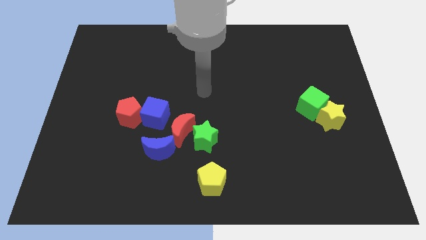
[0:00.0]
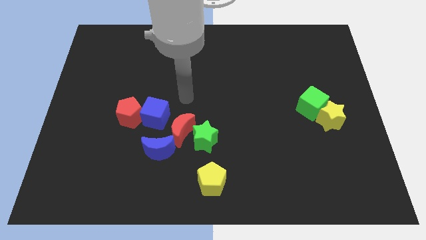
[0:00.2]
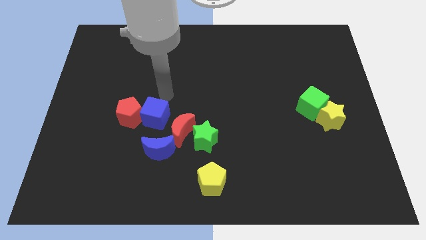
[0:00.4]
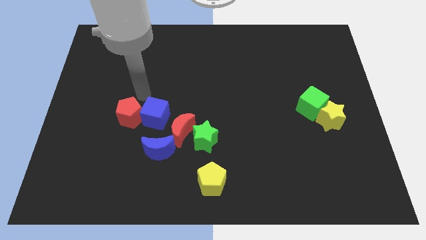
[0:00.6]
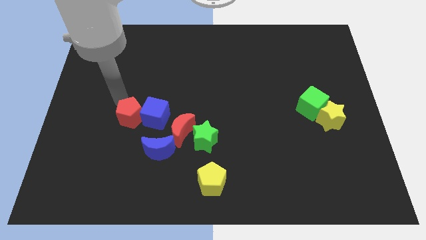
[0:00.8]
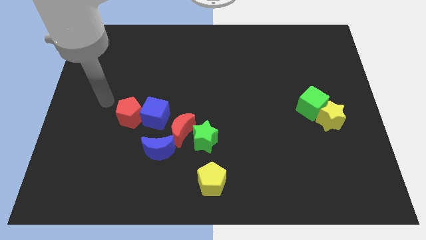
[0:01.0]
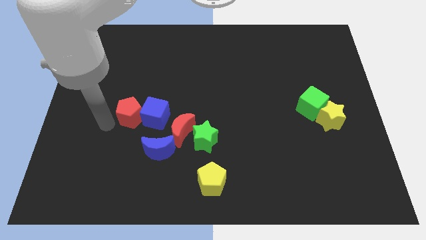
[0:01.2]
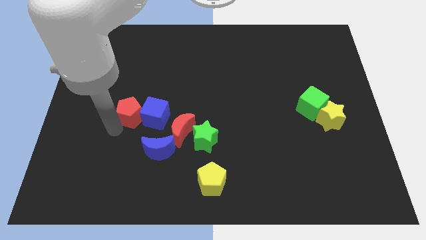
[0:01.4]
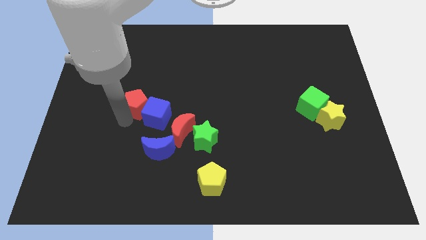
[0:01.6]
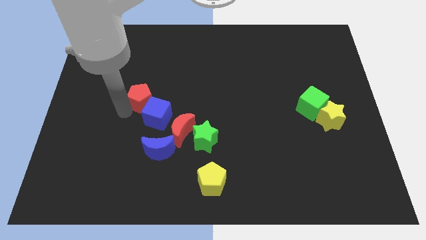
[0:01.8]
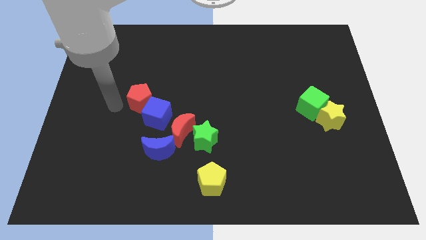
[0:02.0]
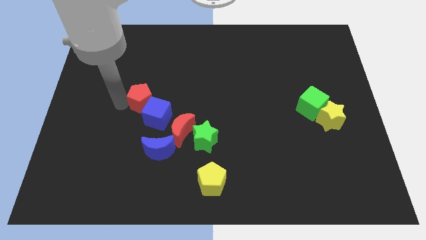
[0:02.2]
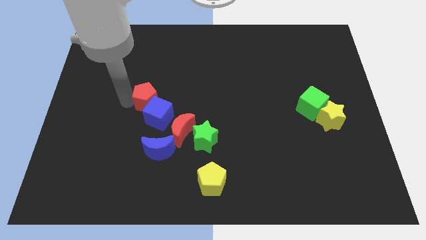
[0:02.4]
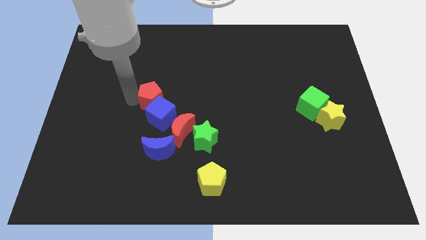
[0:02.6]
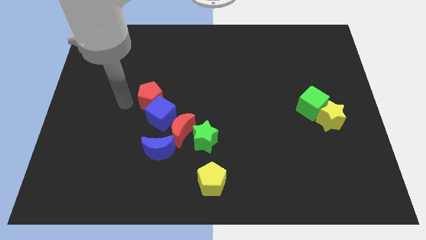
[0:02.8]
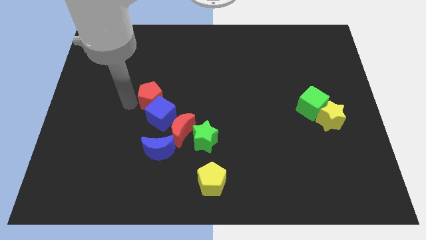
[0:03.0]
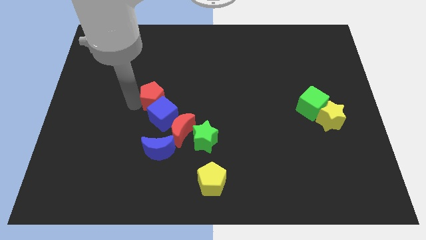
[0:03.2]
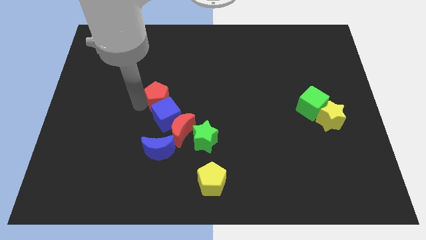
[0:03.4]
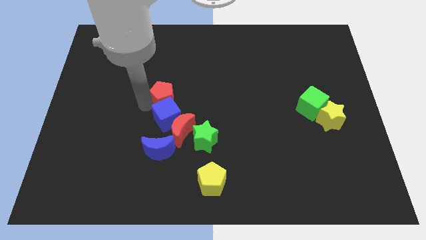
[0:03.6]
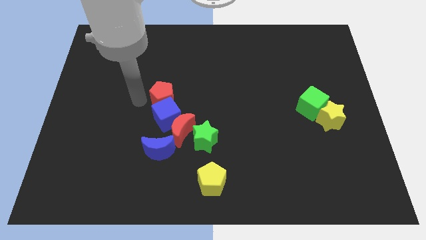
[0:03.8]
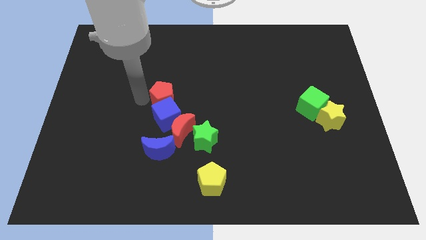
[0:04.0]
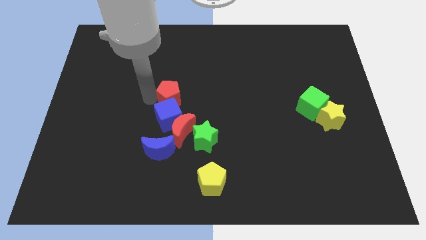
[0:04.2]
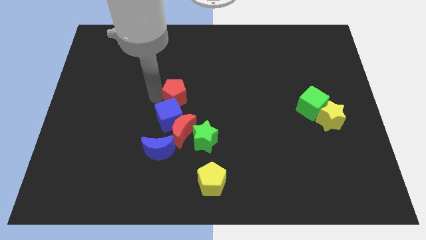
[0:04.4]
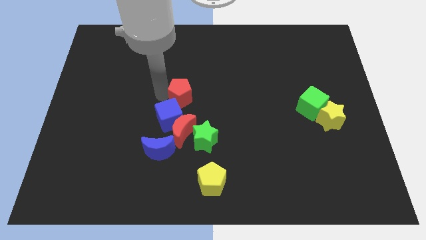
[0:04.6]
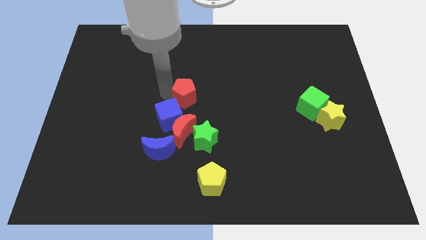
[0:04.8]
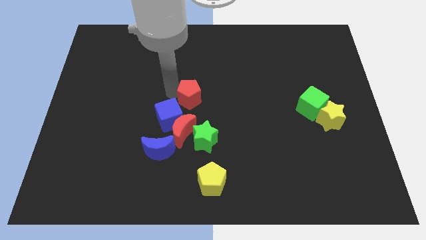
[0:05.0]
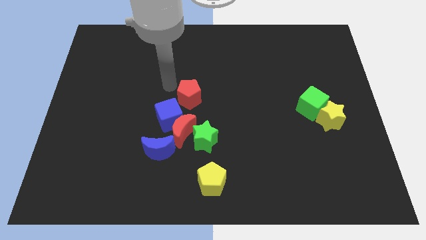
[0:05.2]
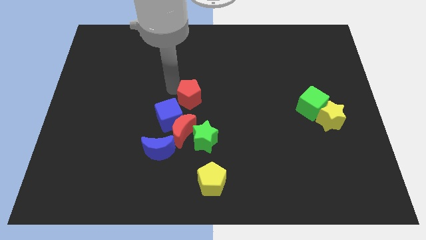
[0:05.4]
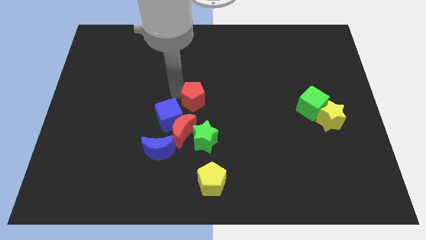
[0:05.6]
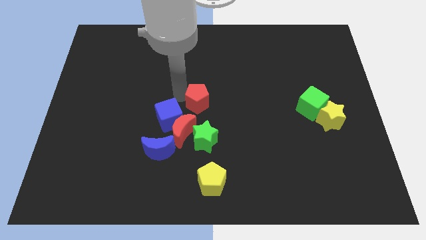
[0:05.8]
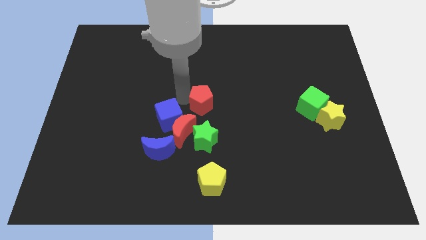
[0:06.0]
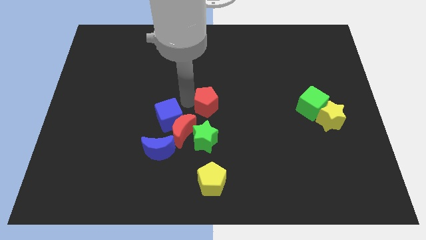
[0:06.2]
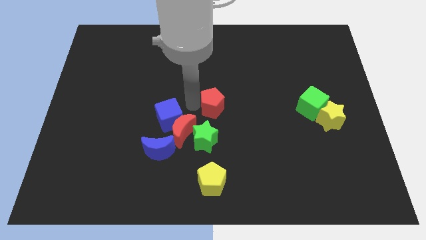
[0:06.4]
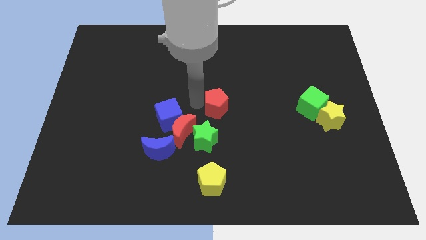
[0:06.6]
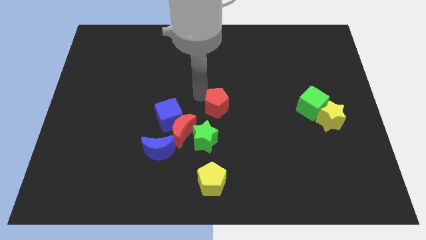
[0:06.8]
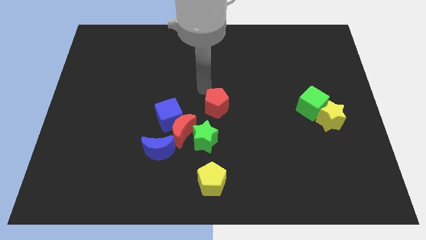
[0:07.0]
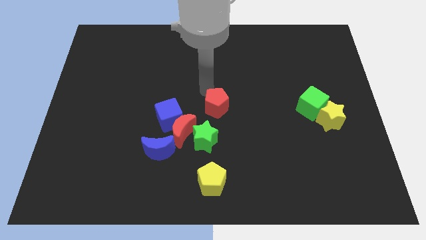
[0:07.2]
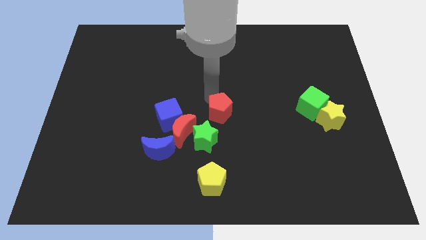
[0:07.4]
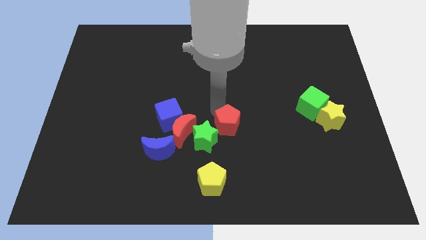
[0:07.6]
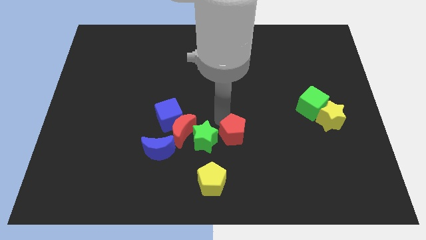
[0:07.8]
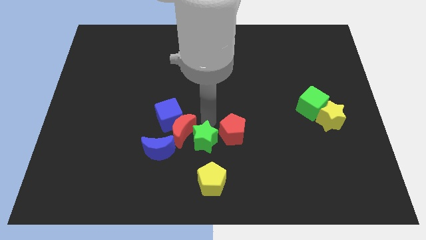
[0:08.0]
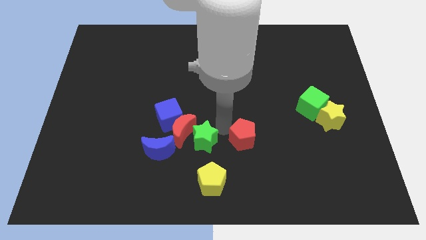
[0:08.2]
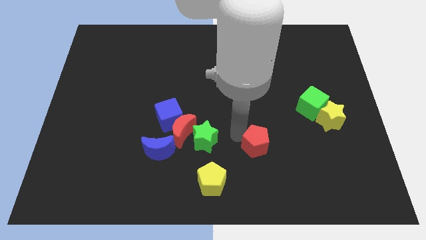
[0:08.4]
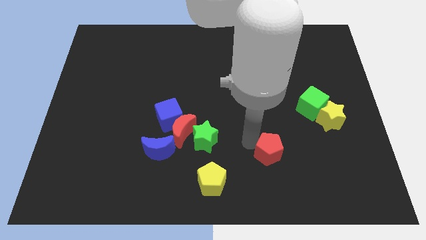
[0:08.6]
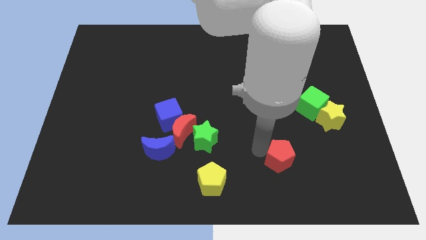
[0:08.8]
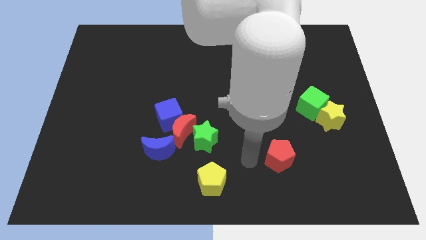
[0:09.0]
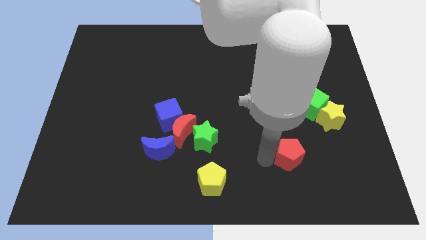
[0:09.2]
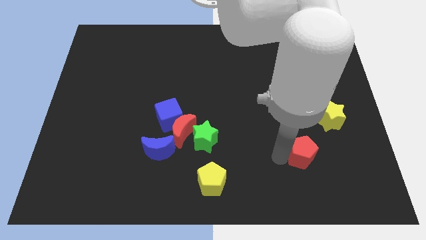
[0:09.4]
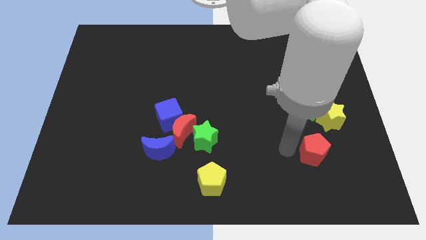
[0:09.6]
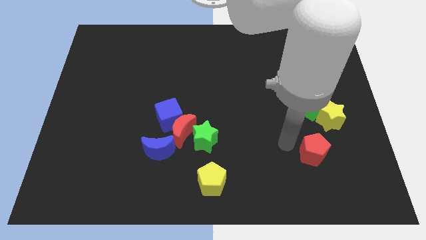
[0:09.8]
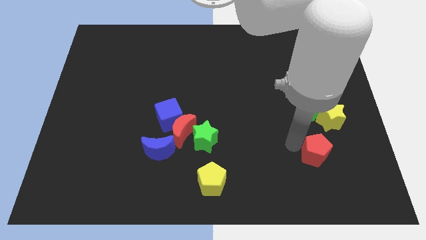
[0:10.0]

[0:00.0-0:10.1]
slide the red pentagon to the bottom side of the yellow star

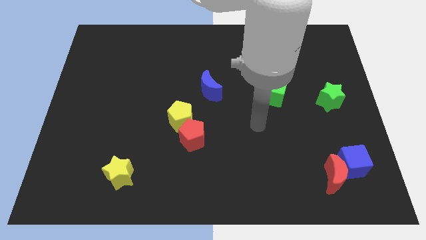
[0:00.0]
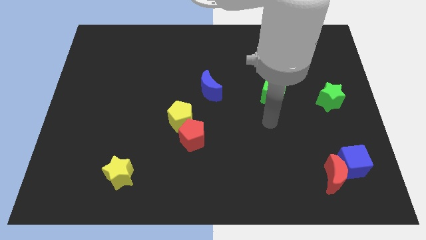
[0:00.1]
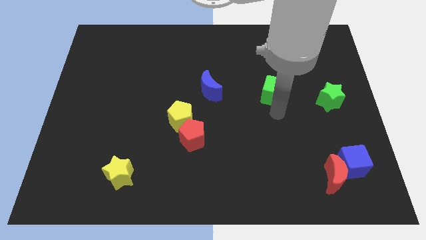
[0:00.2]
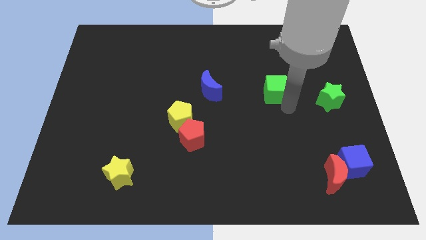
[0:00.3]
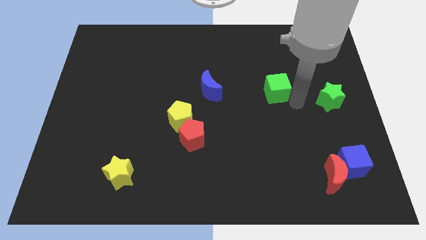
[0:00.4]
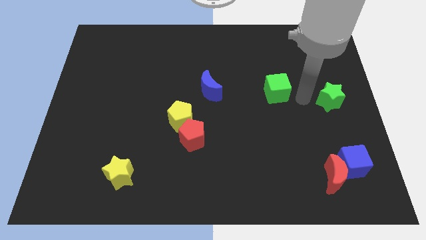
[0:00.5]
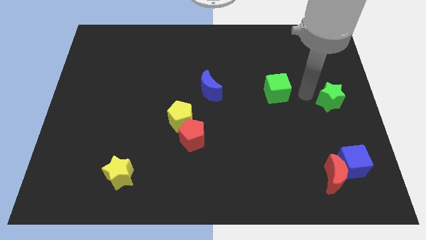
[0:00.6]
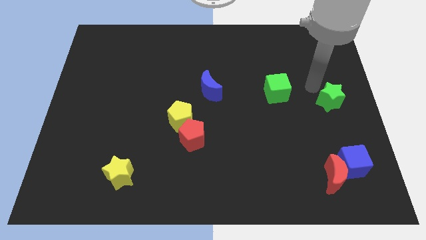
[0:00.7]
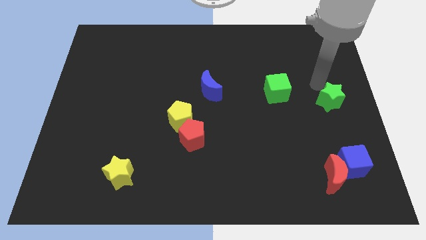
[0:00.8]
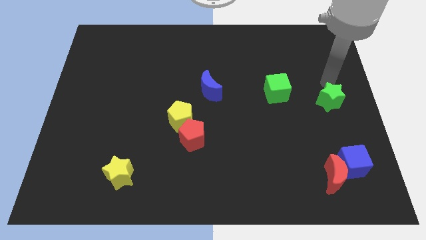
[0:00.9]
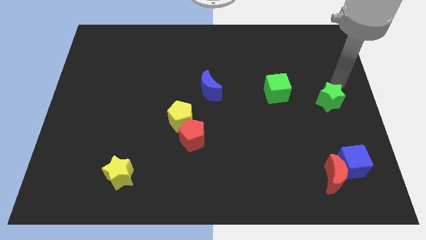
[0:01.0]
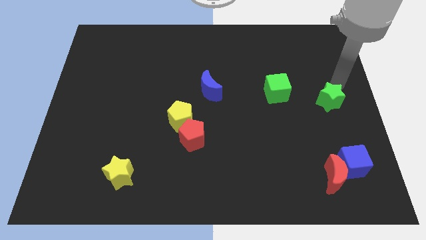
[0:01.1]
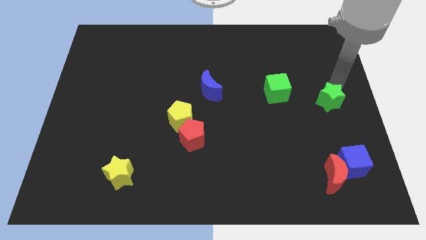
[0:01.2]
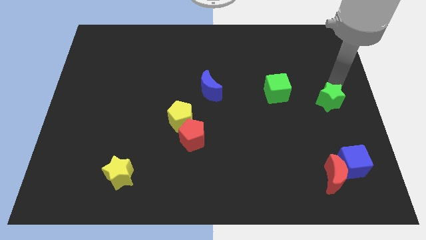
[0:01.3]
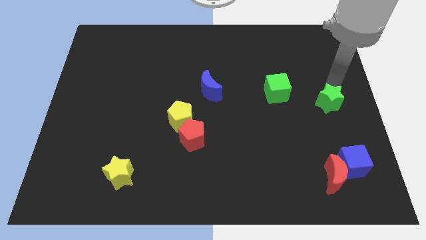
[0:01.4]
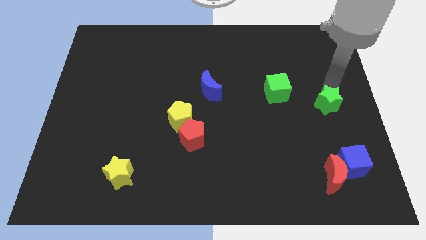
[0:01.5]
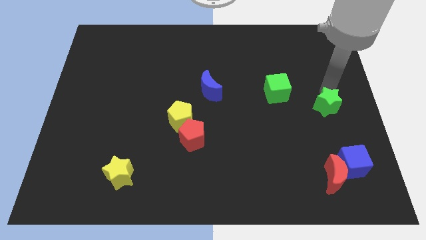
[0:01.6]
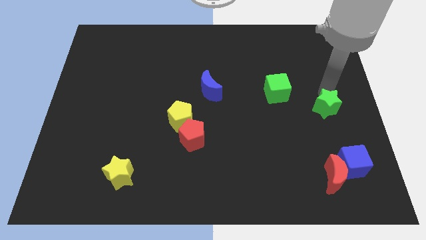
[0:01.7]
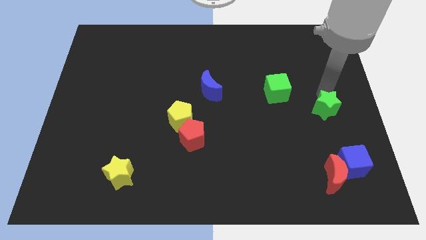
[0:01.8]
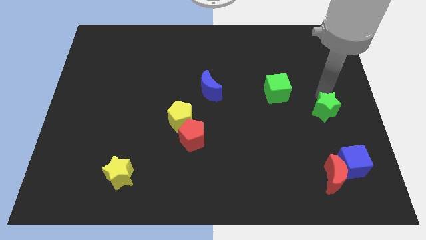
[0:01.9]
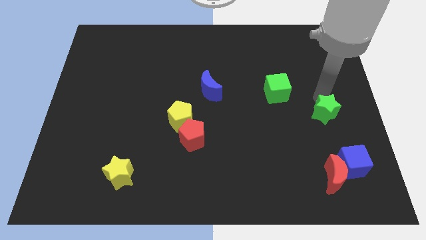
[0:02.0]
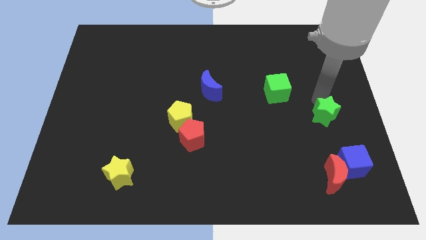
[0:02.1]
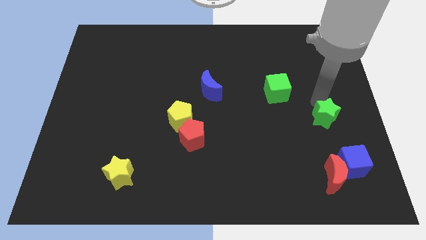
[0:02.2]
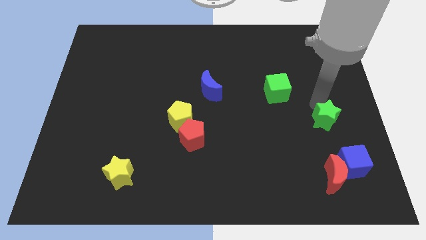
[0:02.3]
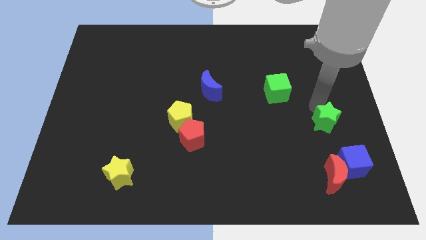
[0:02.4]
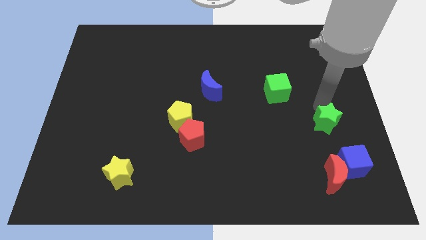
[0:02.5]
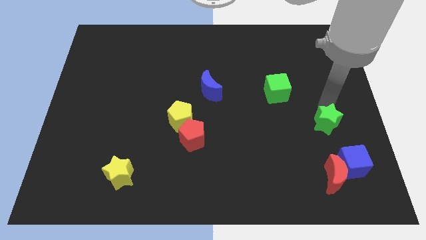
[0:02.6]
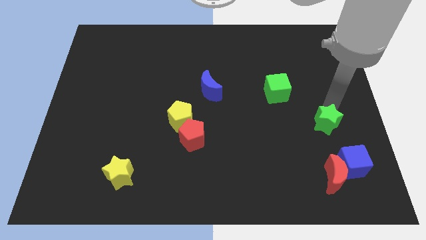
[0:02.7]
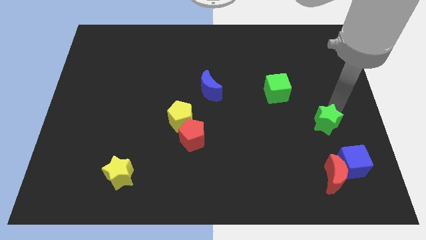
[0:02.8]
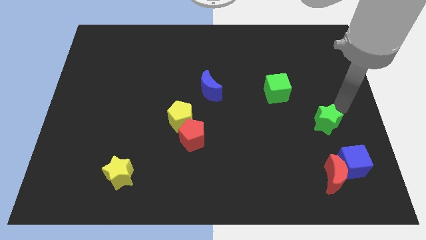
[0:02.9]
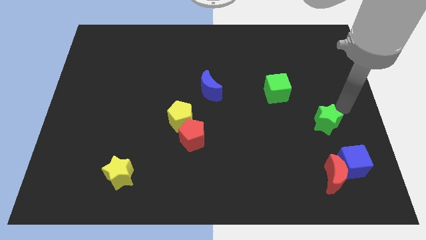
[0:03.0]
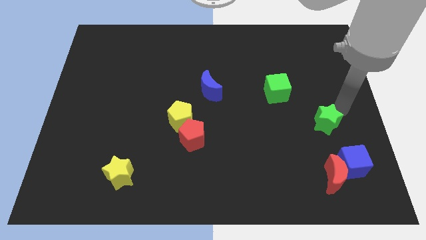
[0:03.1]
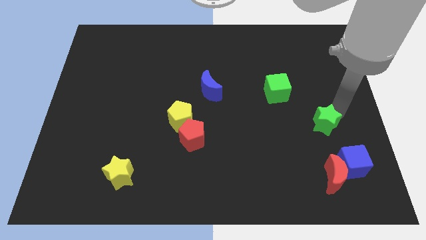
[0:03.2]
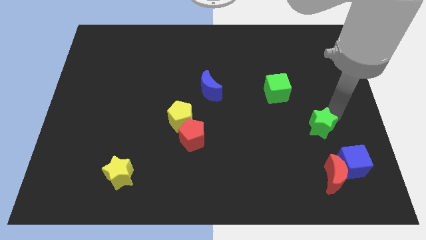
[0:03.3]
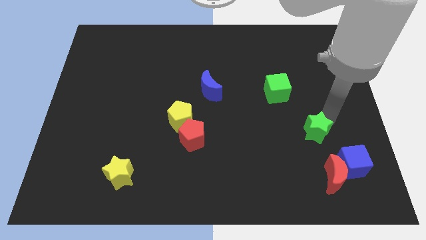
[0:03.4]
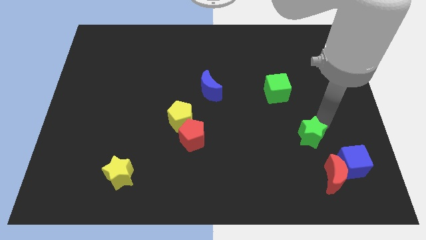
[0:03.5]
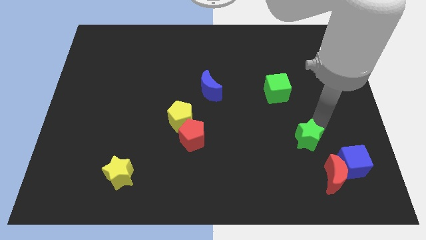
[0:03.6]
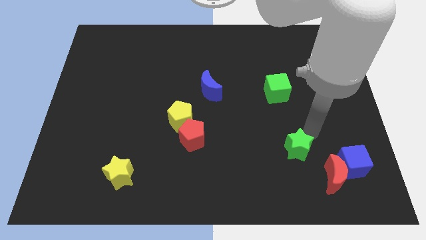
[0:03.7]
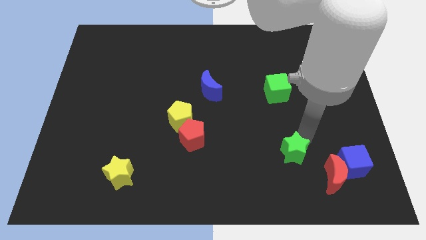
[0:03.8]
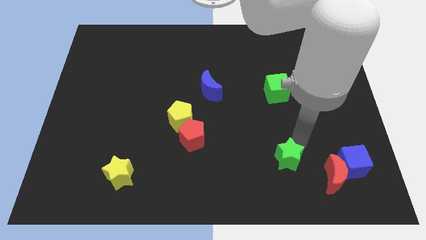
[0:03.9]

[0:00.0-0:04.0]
move the green star to the left side of the red moon
